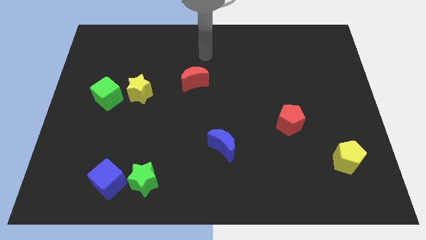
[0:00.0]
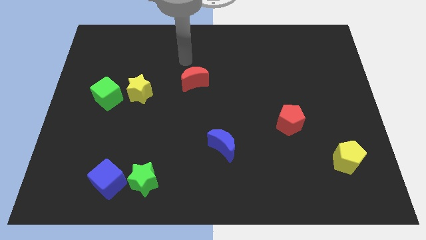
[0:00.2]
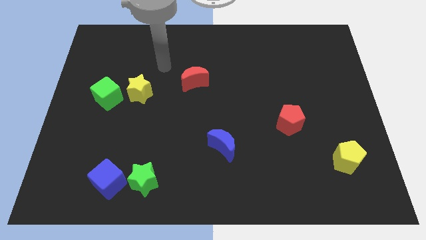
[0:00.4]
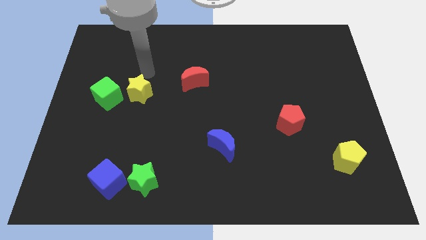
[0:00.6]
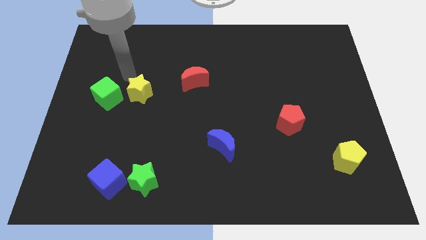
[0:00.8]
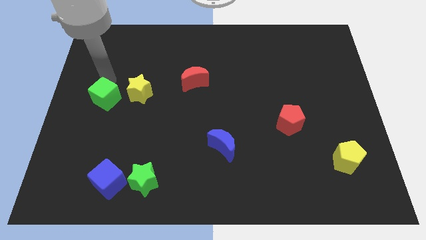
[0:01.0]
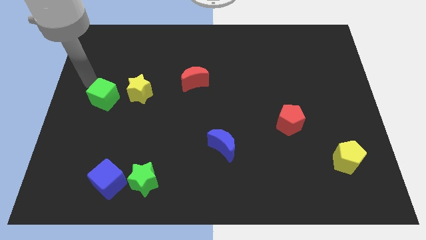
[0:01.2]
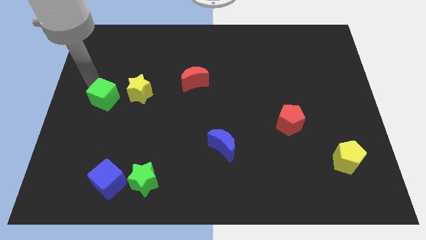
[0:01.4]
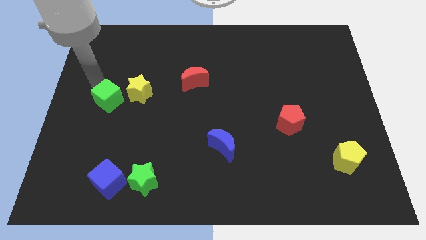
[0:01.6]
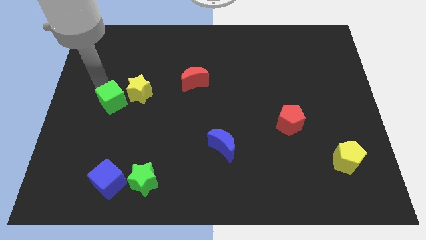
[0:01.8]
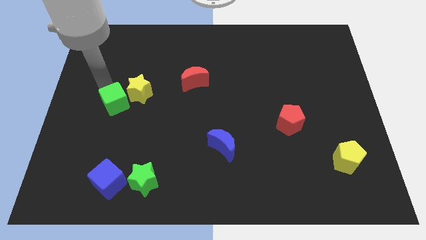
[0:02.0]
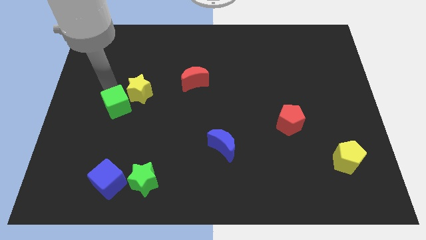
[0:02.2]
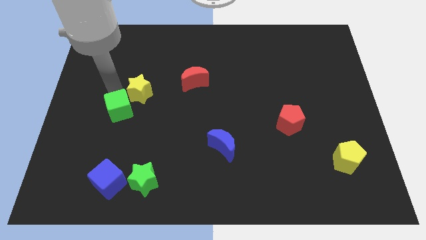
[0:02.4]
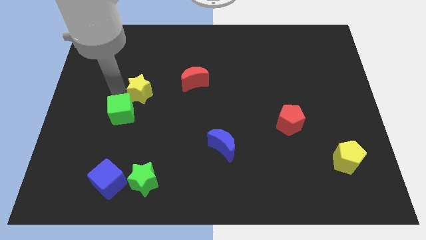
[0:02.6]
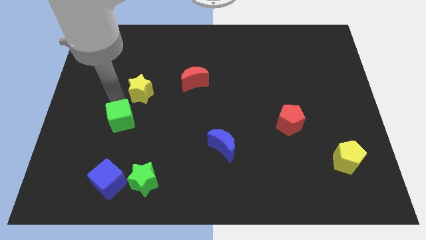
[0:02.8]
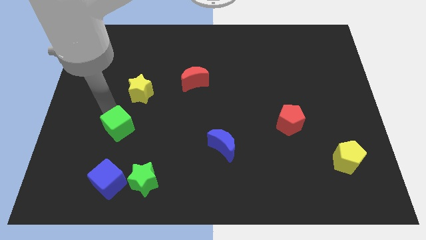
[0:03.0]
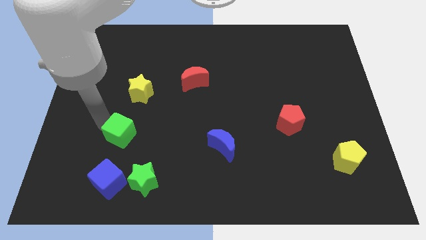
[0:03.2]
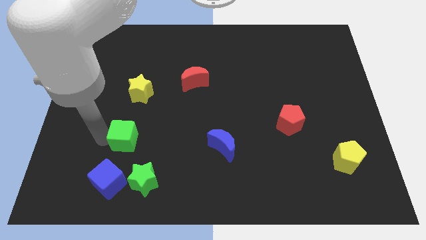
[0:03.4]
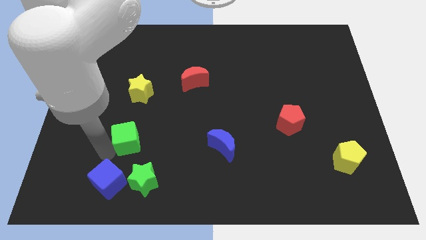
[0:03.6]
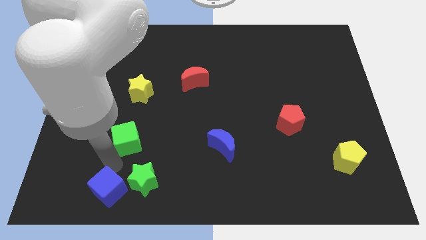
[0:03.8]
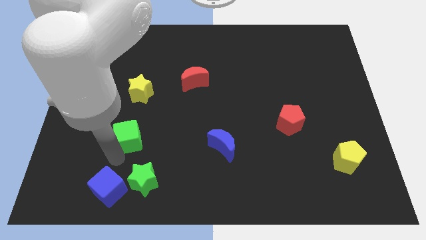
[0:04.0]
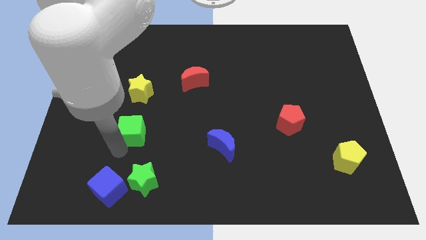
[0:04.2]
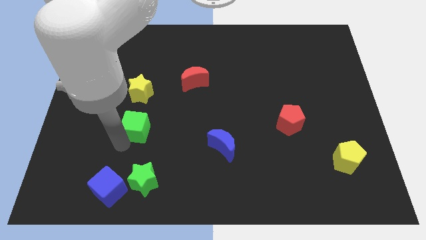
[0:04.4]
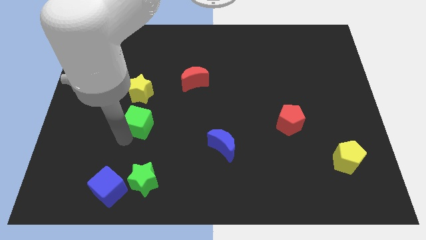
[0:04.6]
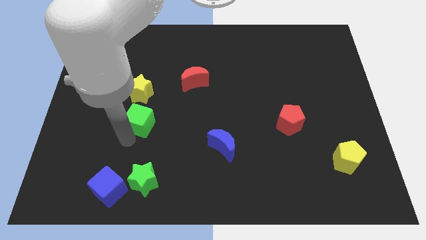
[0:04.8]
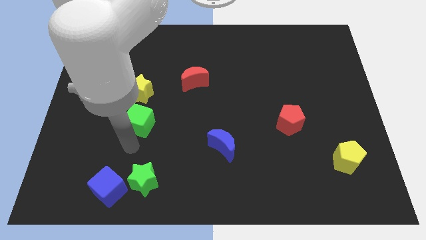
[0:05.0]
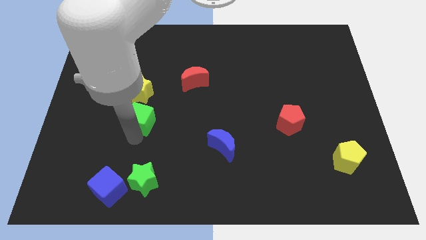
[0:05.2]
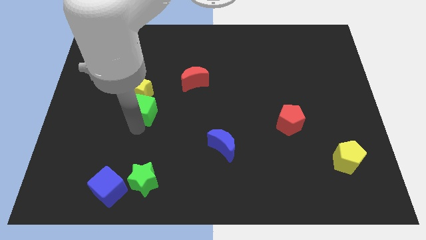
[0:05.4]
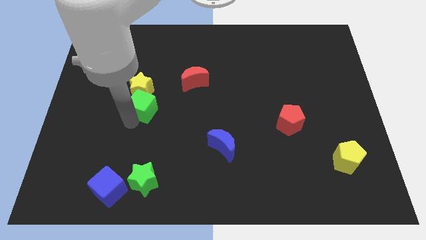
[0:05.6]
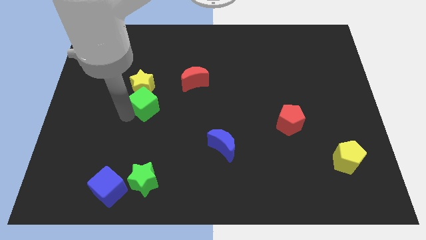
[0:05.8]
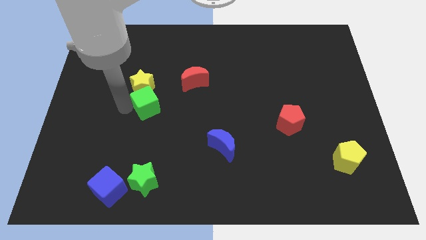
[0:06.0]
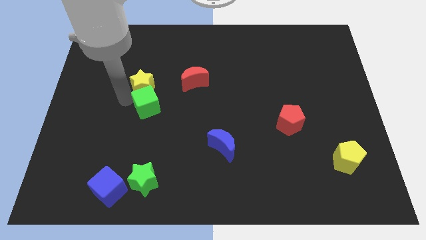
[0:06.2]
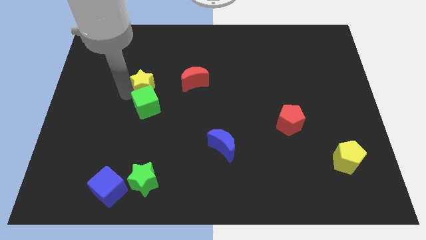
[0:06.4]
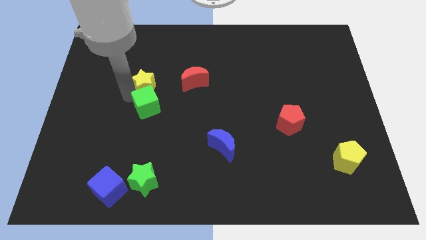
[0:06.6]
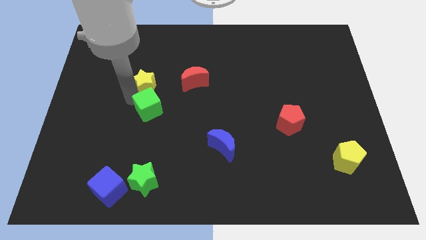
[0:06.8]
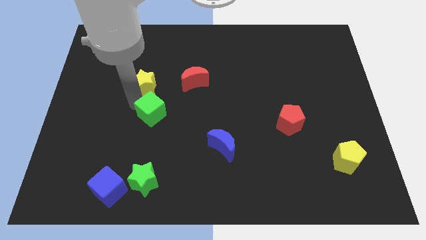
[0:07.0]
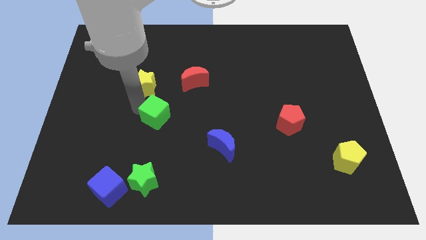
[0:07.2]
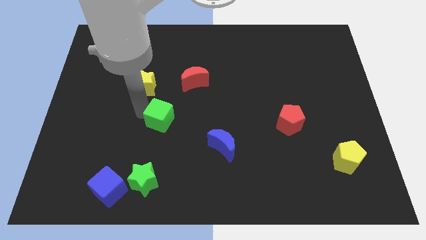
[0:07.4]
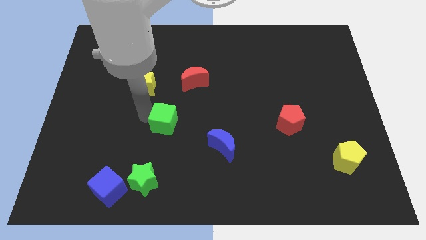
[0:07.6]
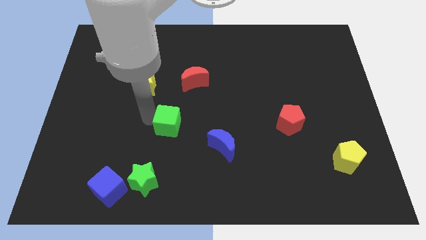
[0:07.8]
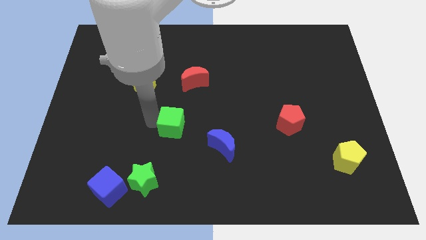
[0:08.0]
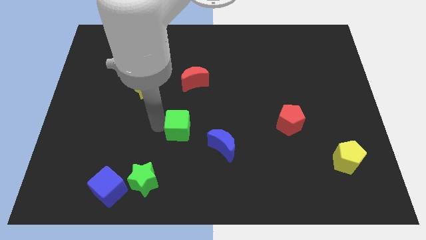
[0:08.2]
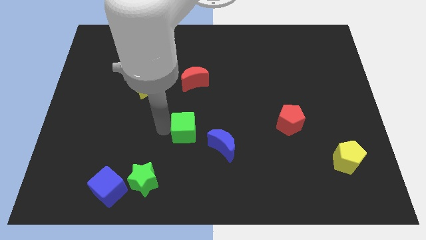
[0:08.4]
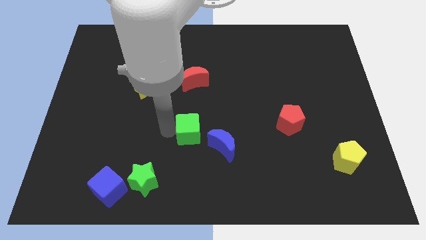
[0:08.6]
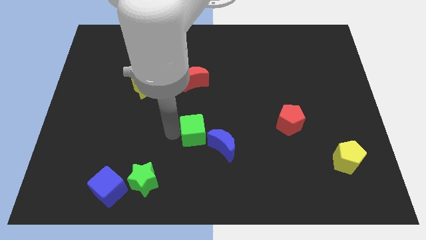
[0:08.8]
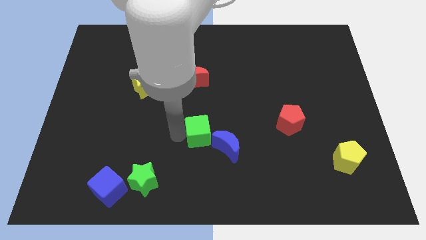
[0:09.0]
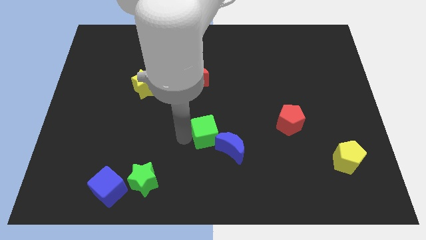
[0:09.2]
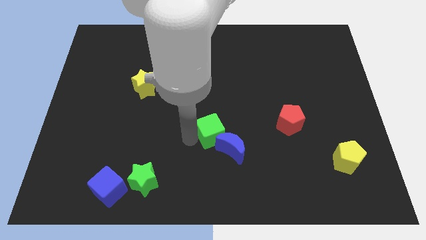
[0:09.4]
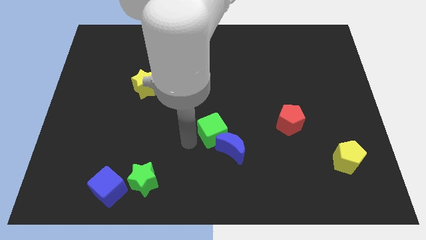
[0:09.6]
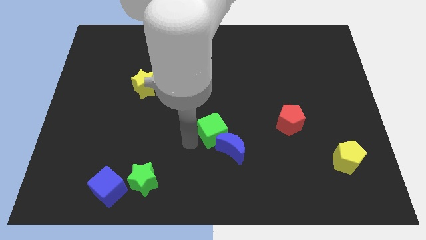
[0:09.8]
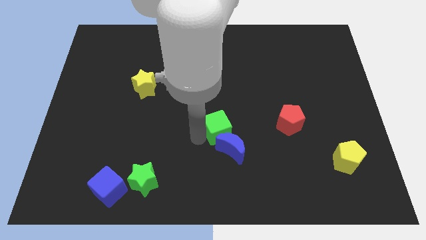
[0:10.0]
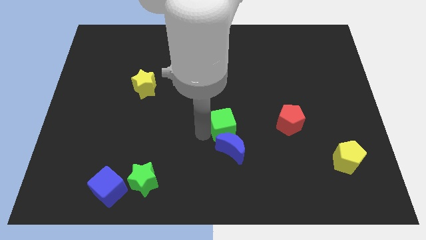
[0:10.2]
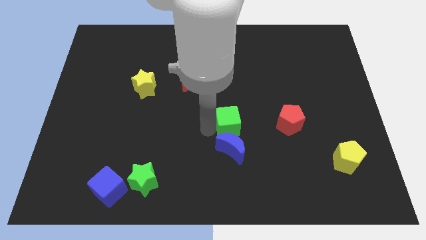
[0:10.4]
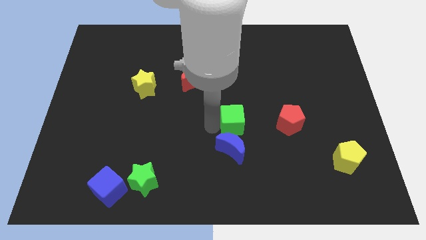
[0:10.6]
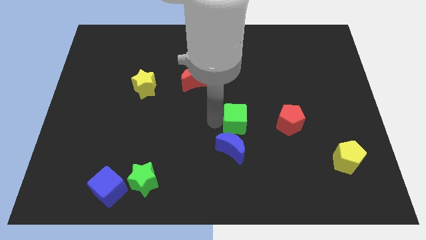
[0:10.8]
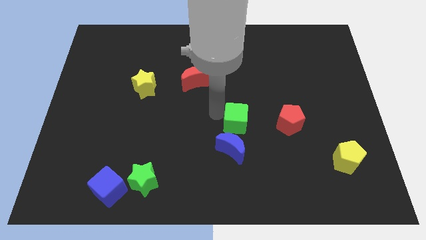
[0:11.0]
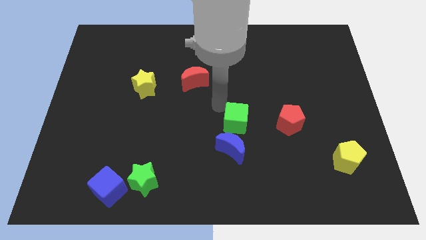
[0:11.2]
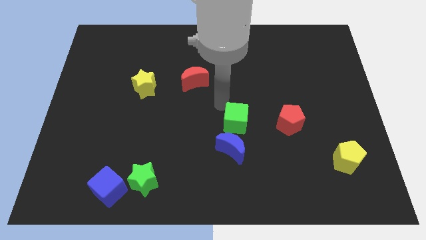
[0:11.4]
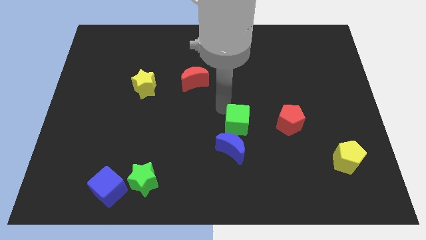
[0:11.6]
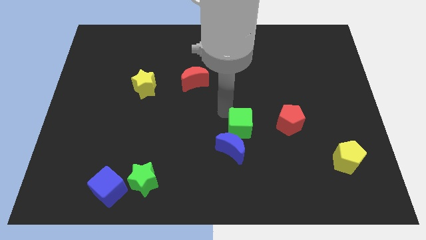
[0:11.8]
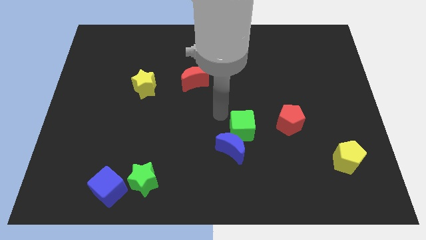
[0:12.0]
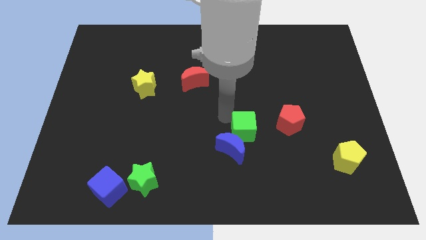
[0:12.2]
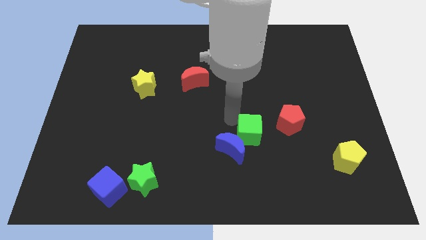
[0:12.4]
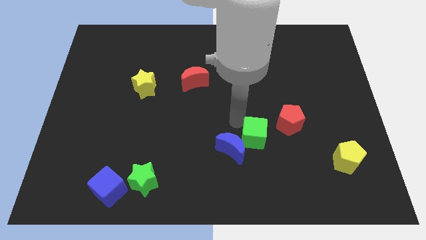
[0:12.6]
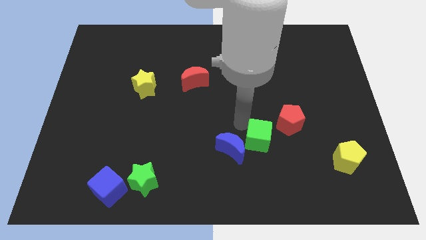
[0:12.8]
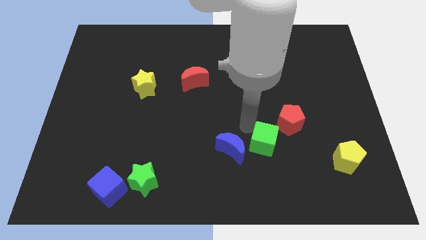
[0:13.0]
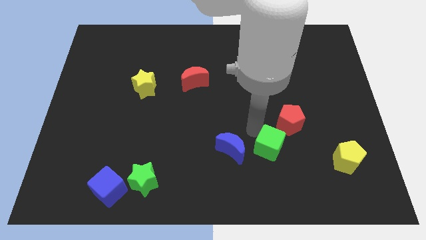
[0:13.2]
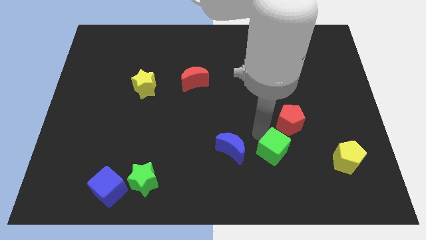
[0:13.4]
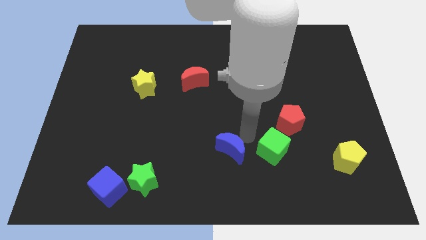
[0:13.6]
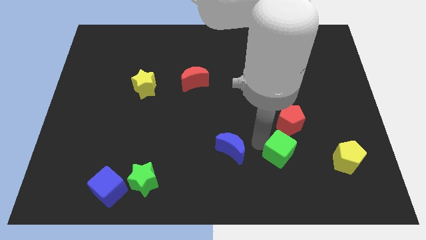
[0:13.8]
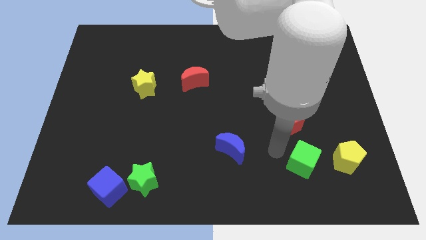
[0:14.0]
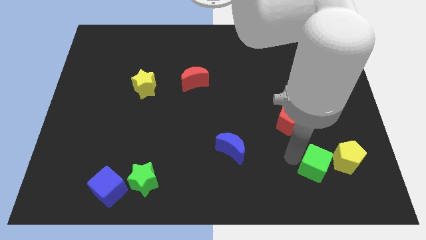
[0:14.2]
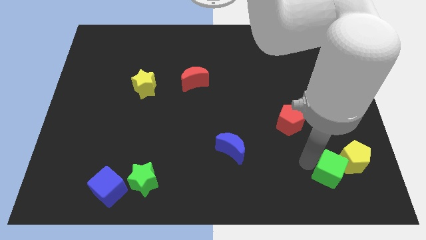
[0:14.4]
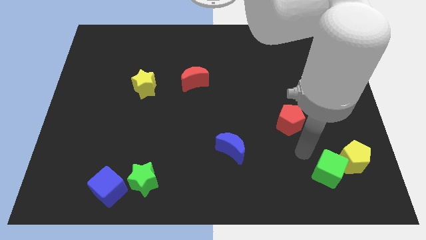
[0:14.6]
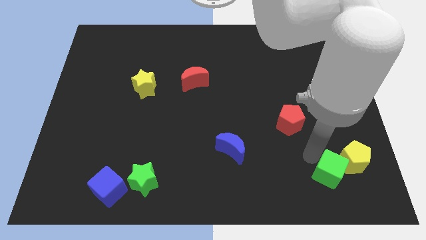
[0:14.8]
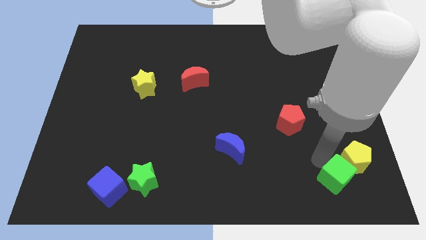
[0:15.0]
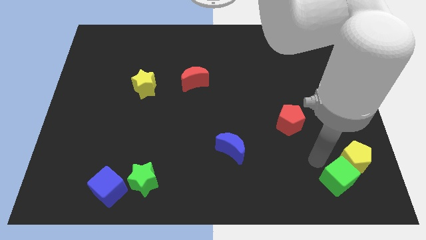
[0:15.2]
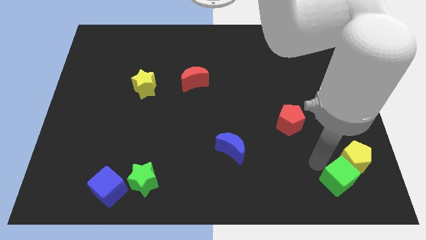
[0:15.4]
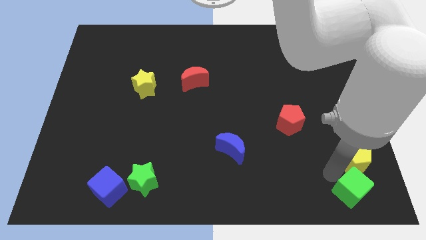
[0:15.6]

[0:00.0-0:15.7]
slide the green cube to the bottom right
